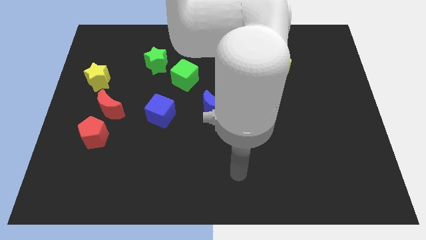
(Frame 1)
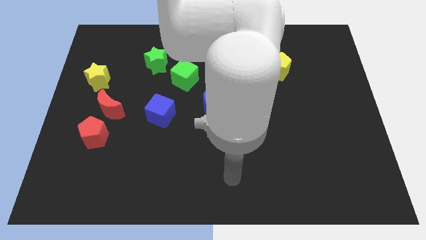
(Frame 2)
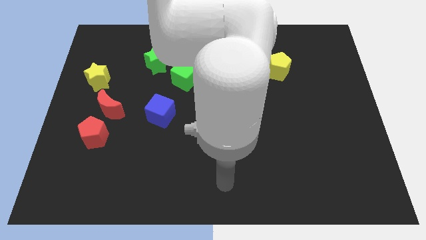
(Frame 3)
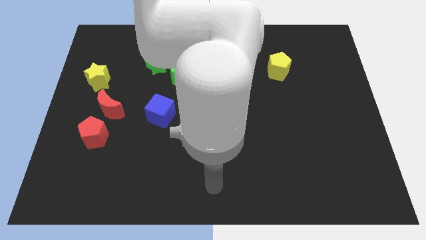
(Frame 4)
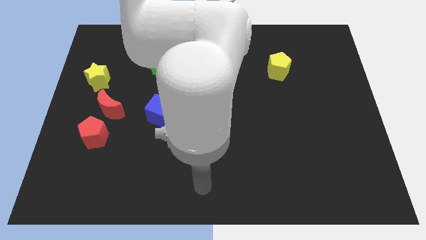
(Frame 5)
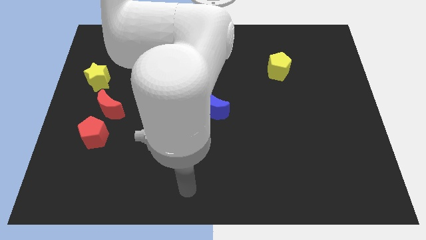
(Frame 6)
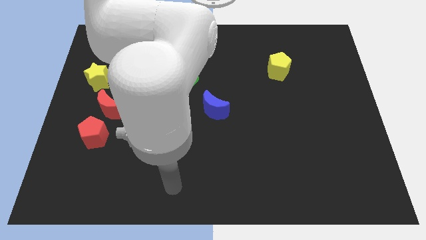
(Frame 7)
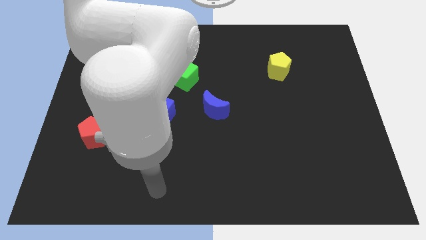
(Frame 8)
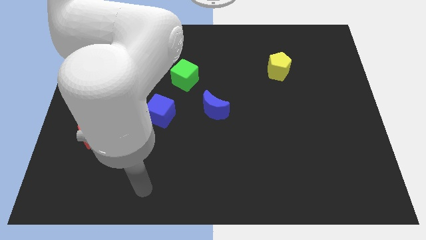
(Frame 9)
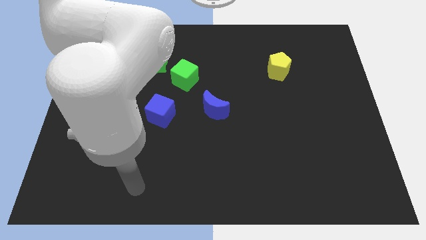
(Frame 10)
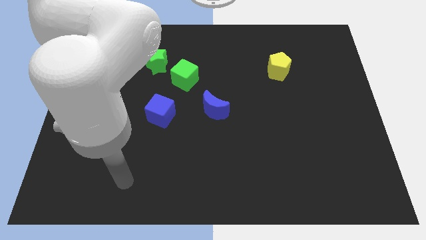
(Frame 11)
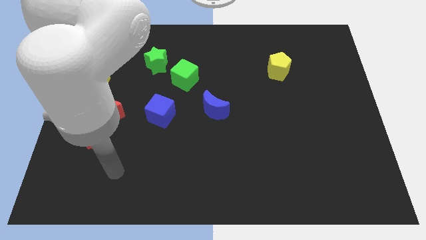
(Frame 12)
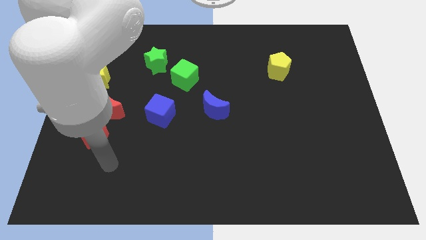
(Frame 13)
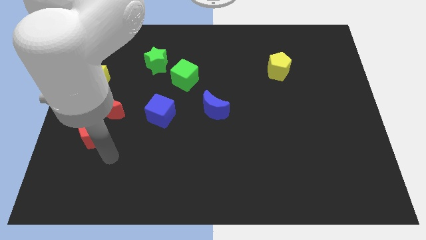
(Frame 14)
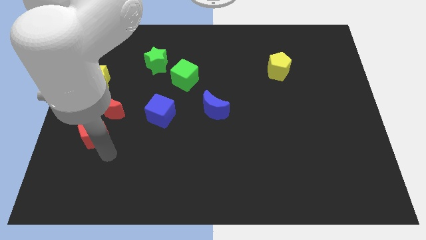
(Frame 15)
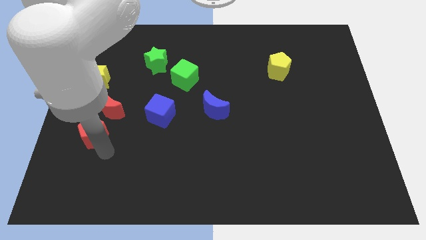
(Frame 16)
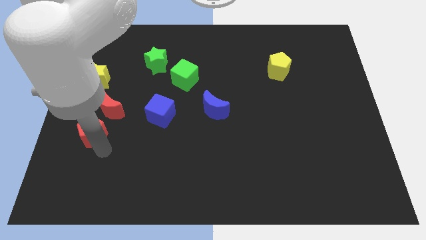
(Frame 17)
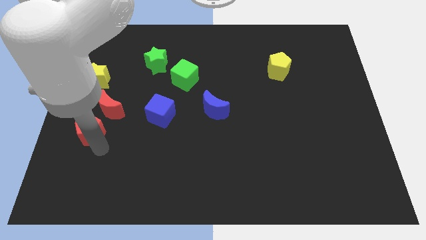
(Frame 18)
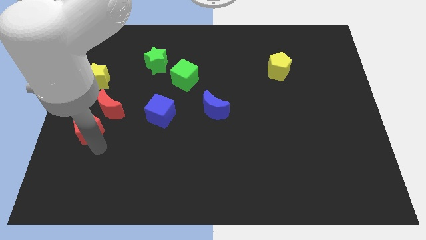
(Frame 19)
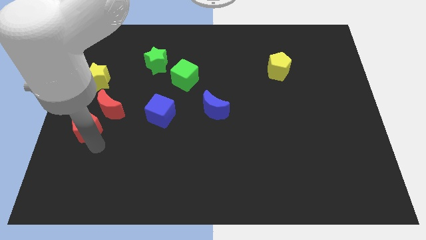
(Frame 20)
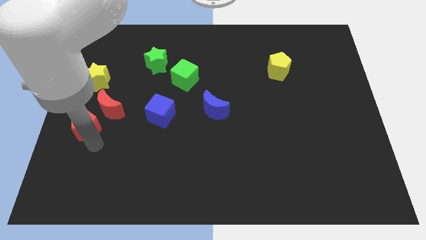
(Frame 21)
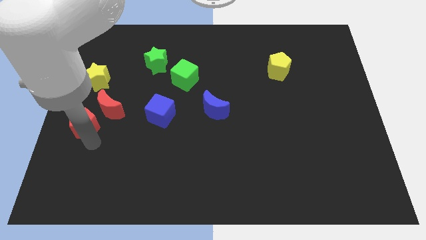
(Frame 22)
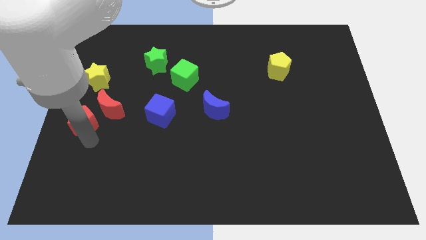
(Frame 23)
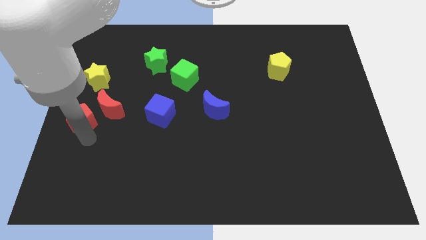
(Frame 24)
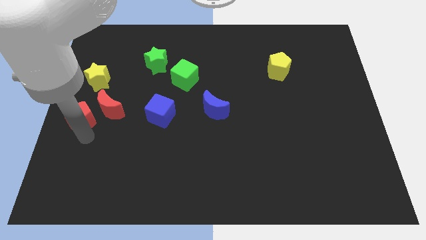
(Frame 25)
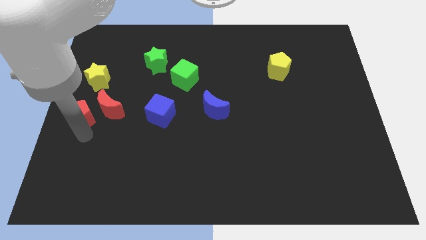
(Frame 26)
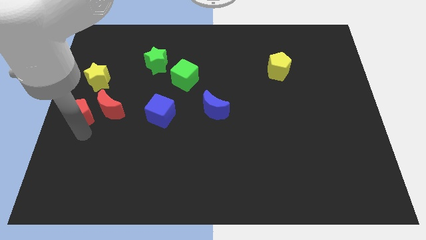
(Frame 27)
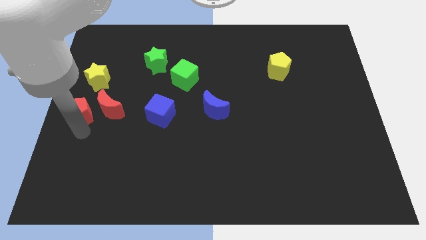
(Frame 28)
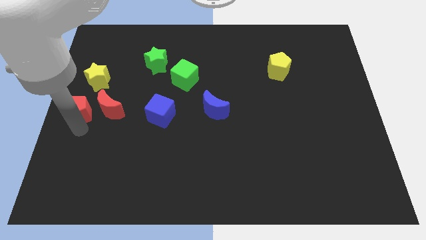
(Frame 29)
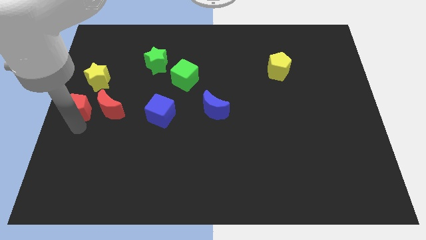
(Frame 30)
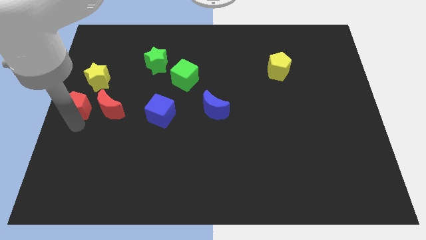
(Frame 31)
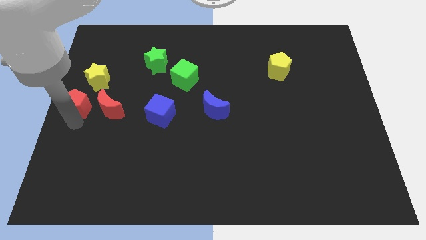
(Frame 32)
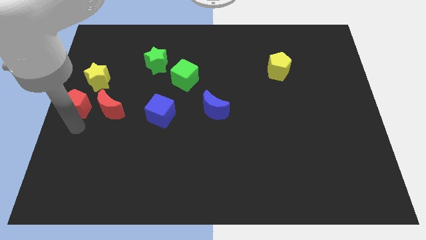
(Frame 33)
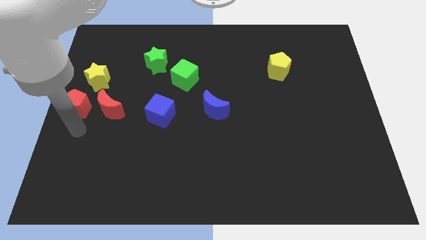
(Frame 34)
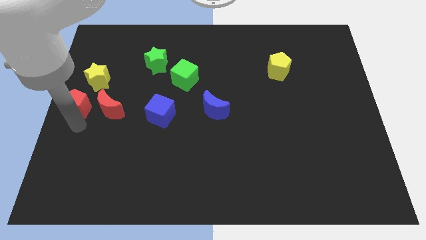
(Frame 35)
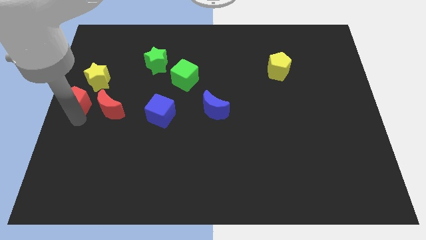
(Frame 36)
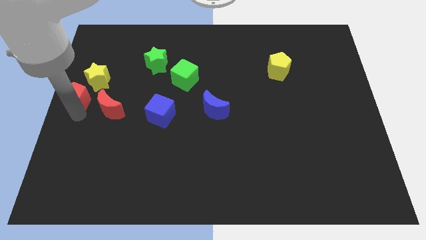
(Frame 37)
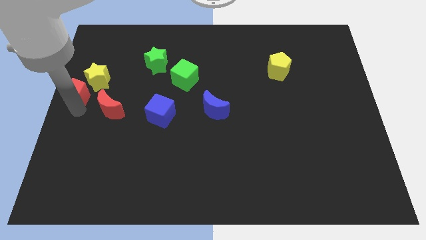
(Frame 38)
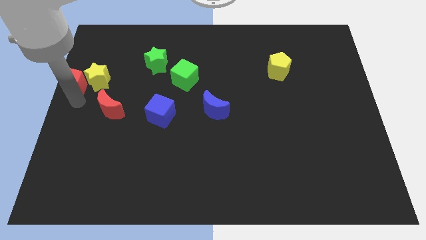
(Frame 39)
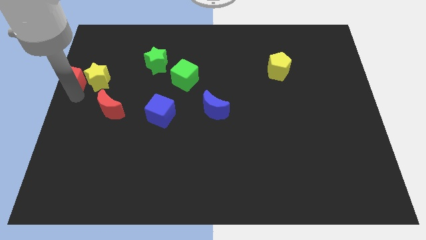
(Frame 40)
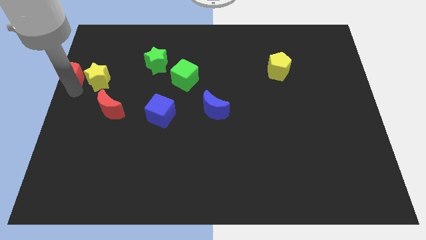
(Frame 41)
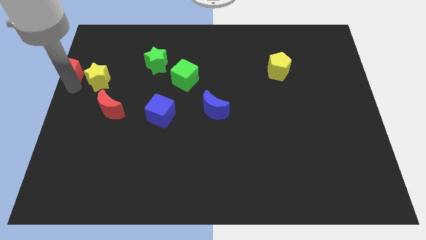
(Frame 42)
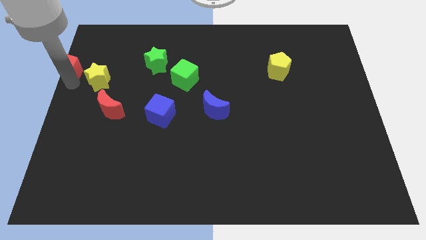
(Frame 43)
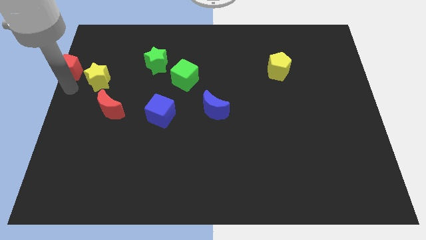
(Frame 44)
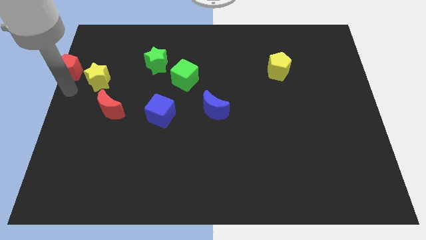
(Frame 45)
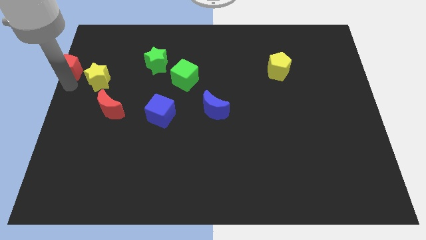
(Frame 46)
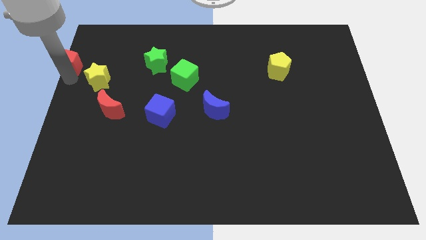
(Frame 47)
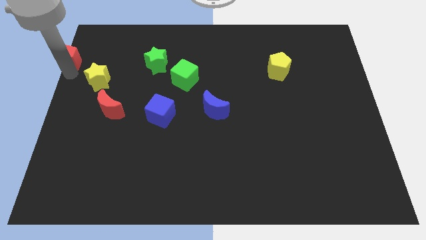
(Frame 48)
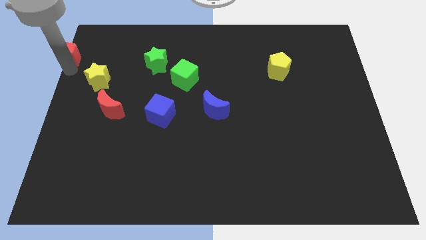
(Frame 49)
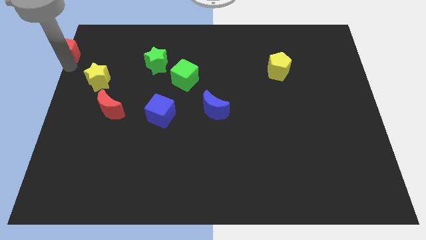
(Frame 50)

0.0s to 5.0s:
slide the red pentagon to the top left corner
